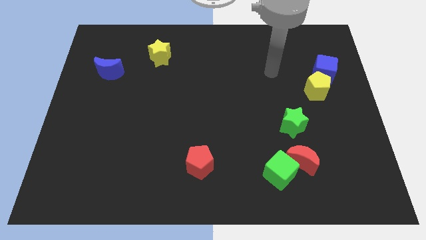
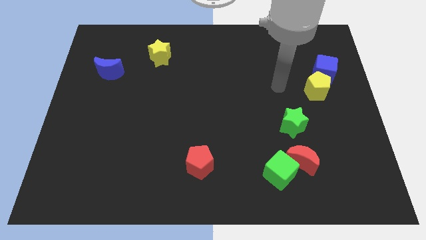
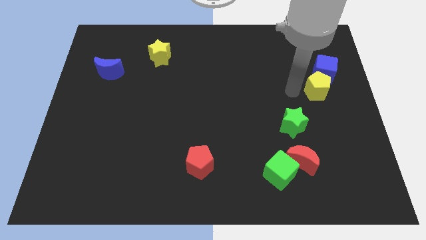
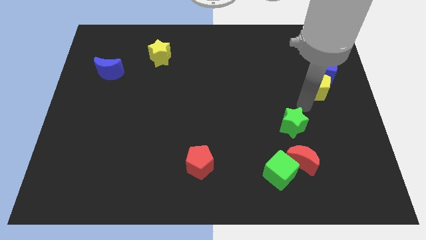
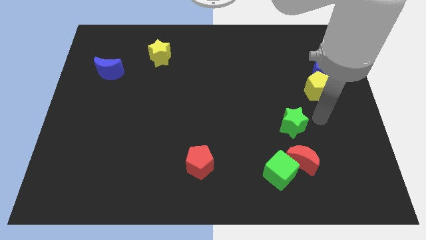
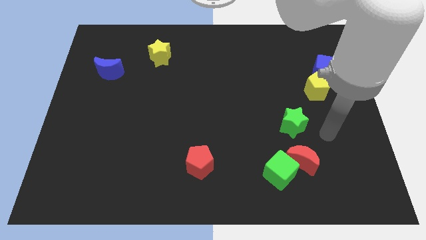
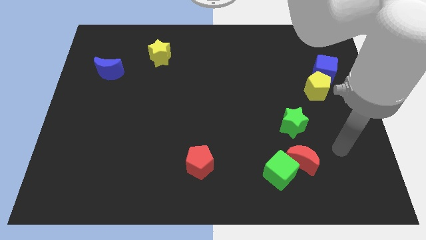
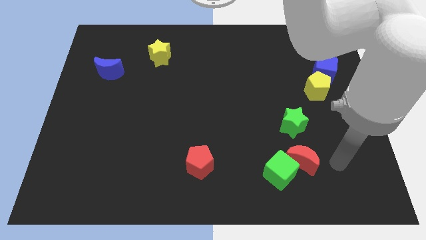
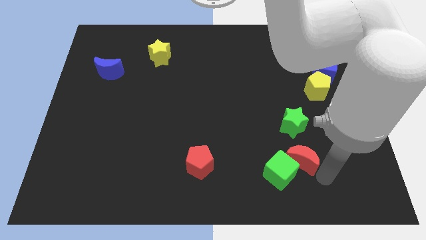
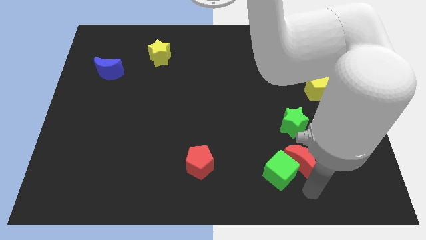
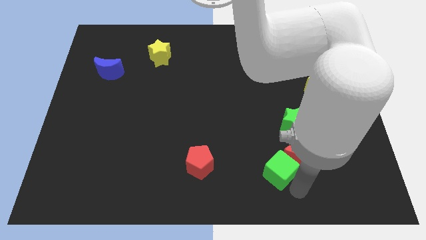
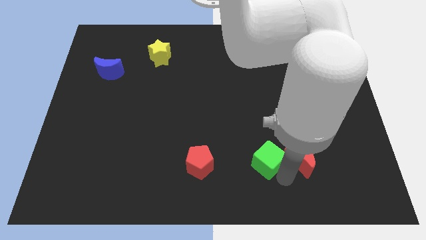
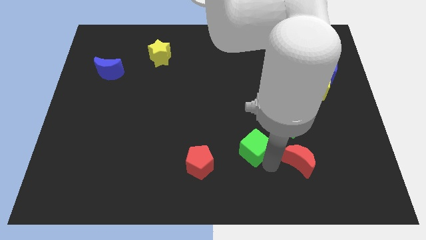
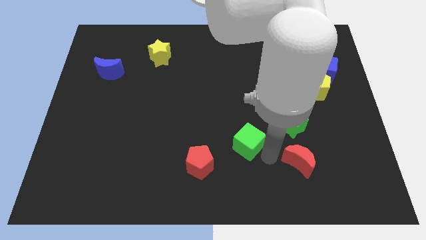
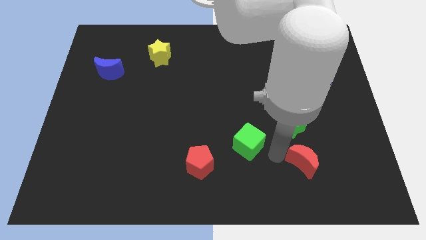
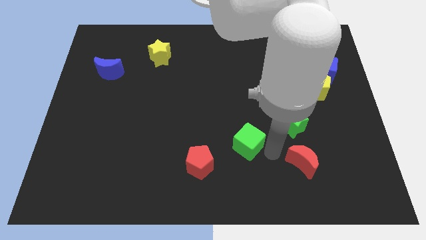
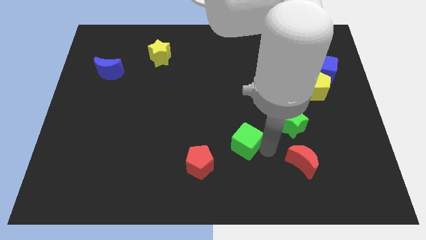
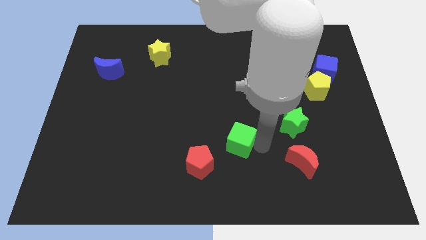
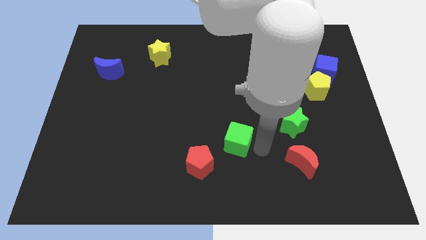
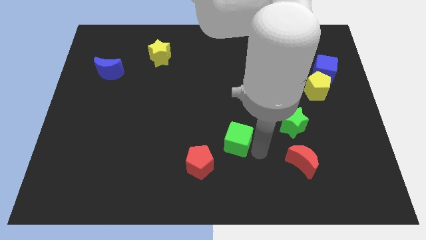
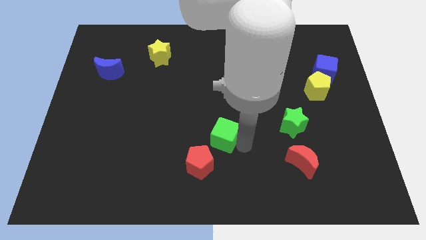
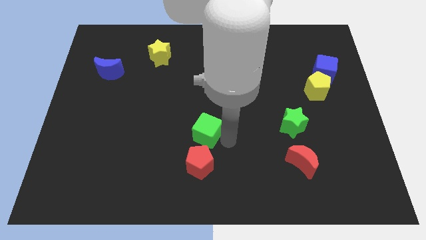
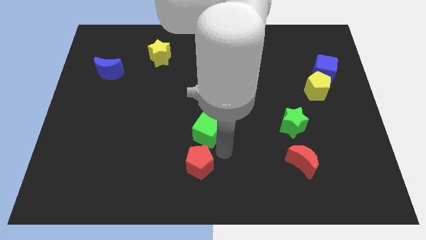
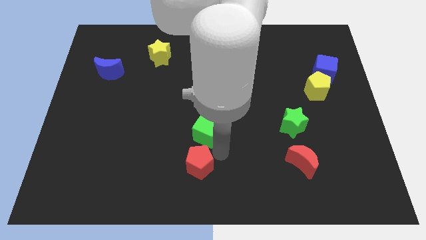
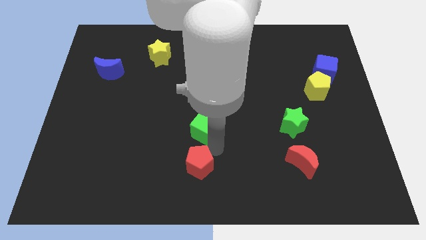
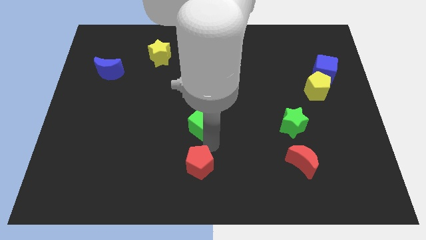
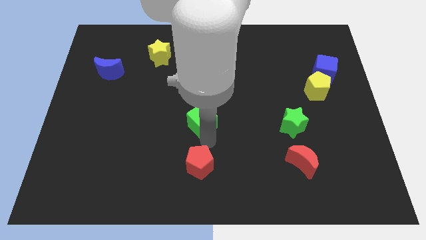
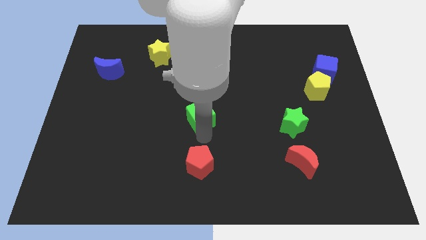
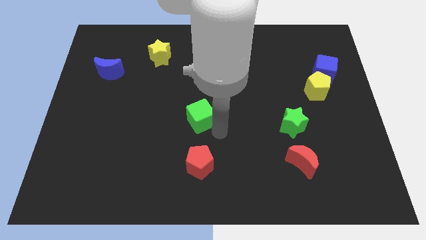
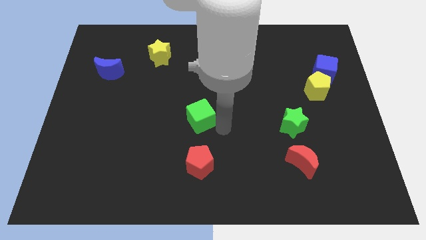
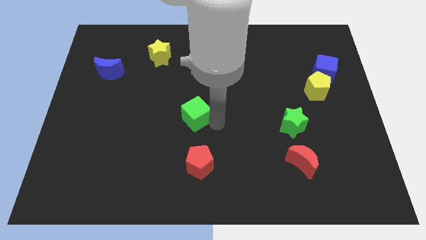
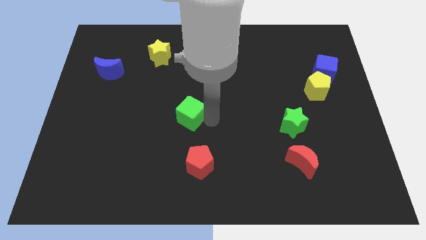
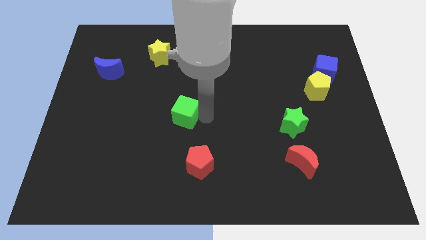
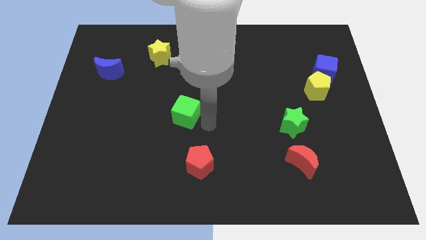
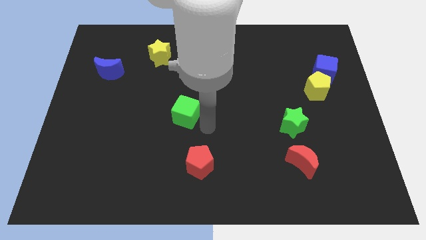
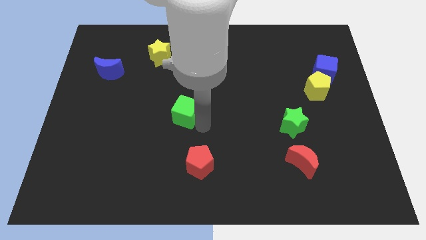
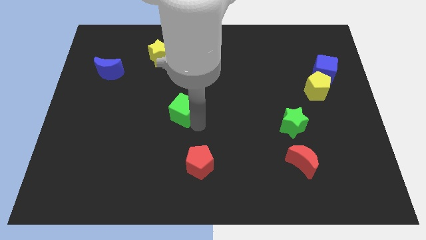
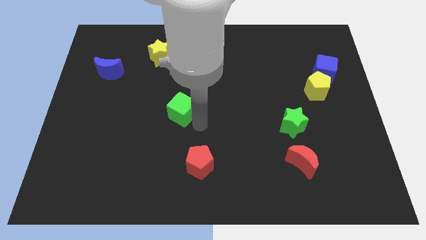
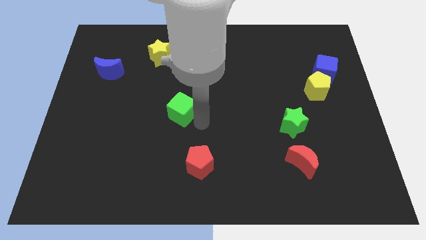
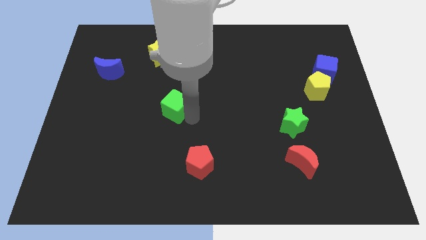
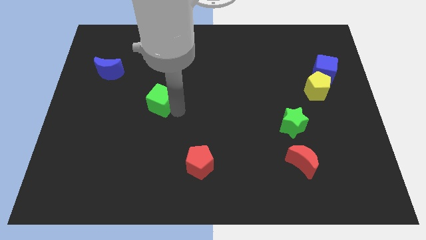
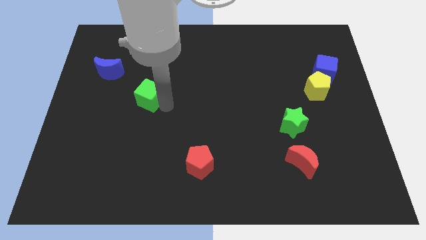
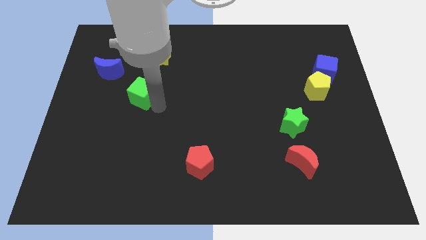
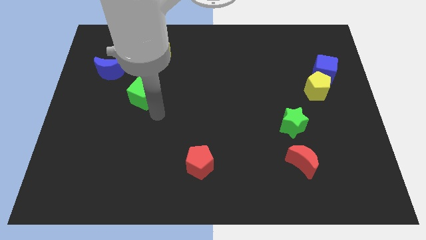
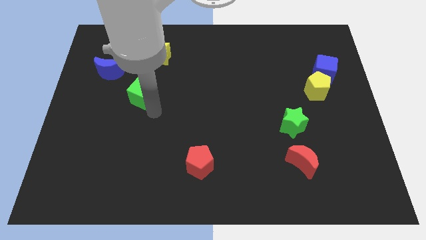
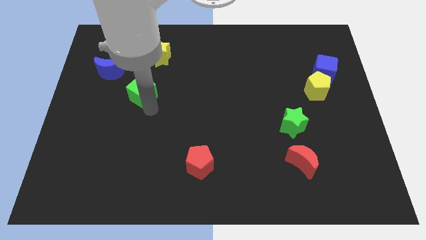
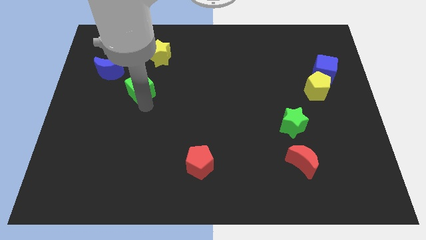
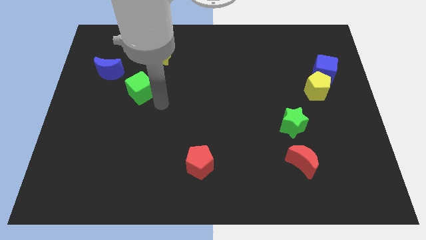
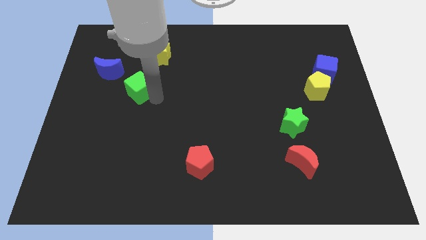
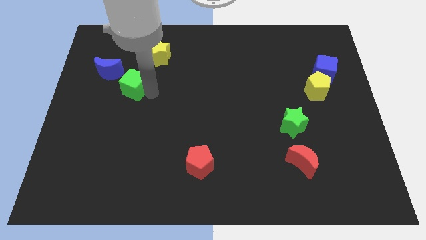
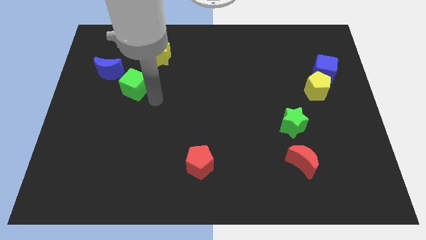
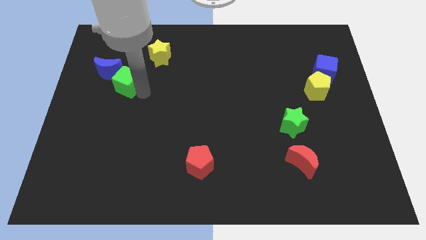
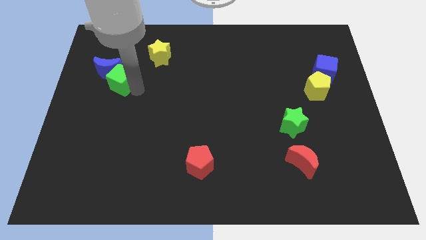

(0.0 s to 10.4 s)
put the green cube next to the blue moon

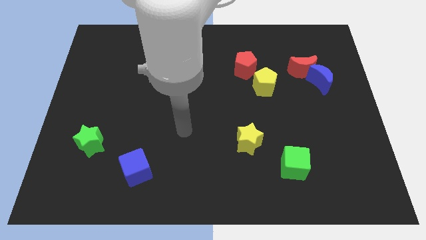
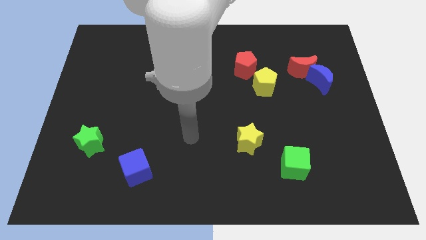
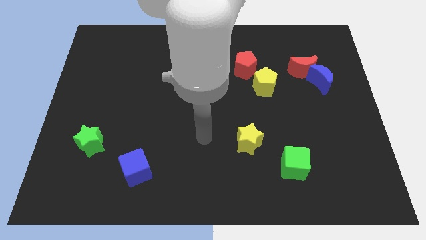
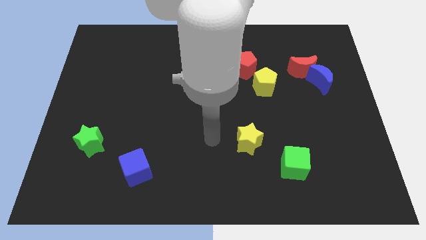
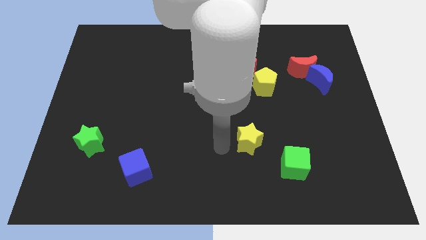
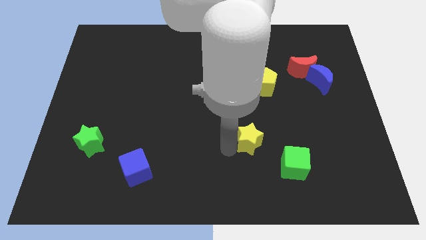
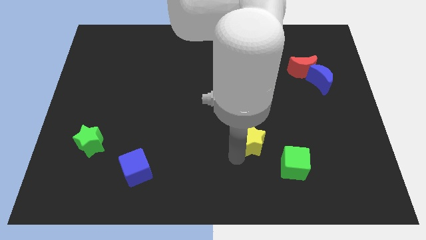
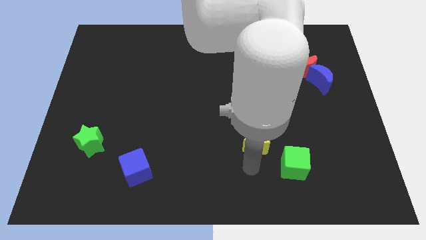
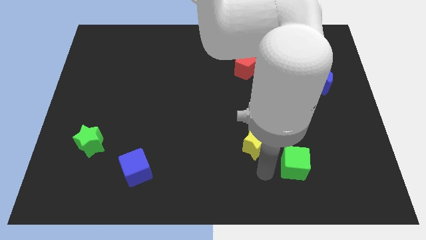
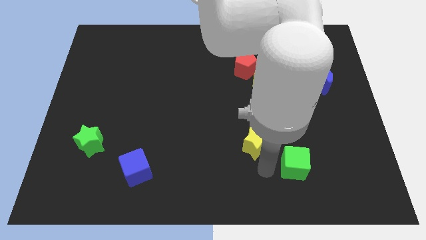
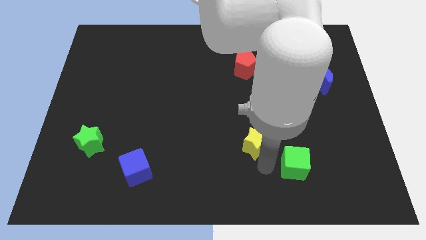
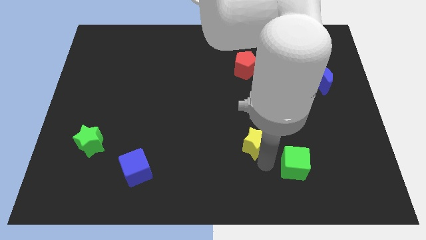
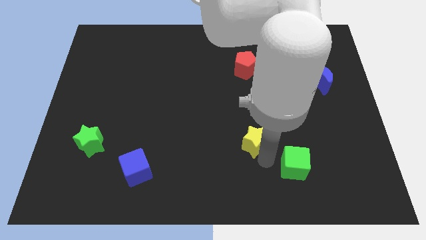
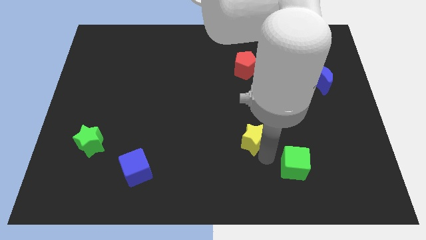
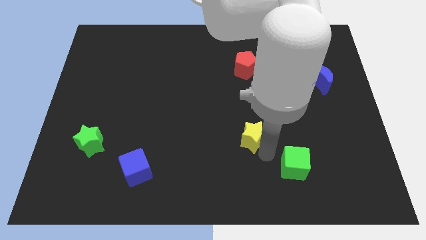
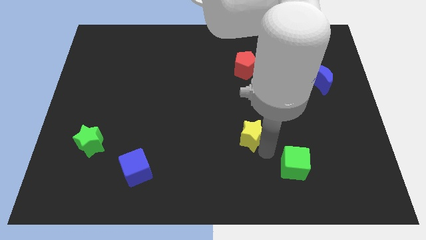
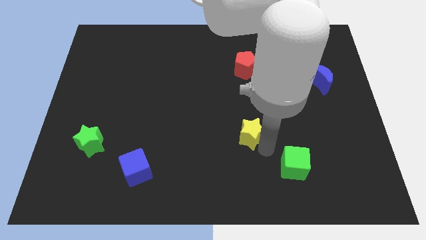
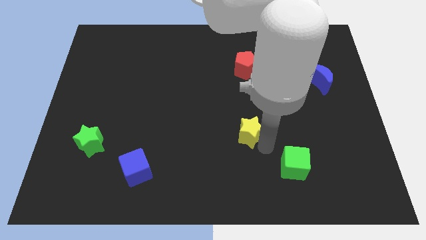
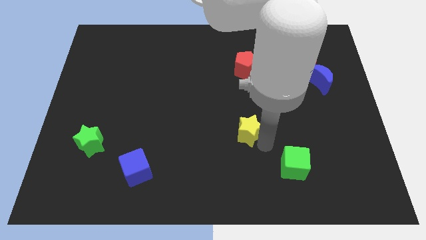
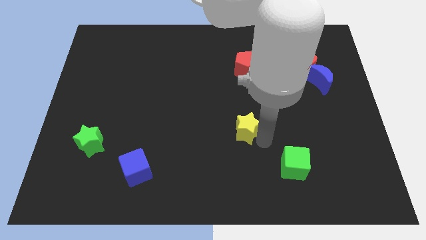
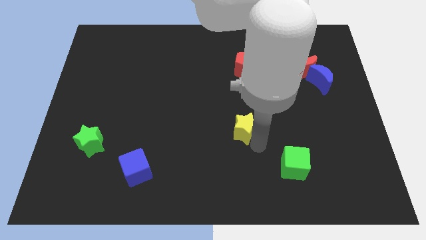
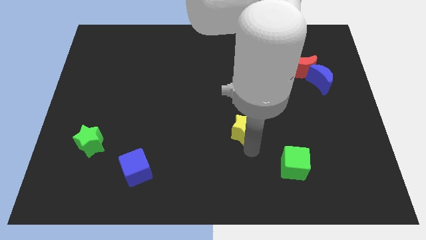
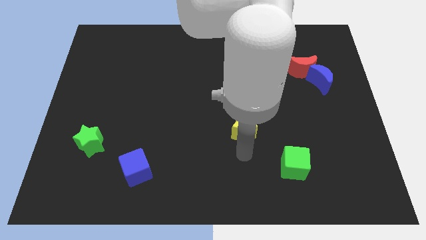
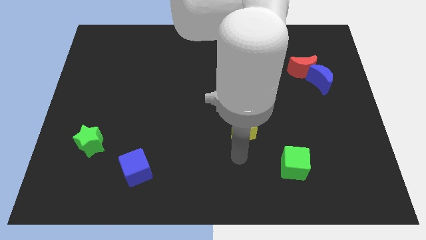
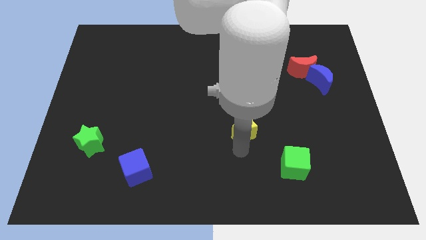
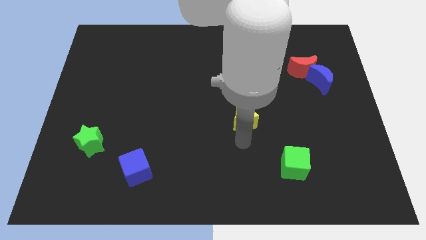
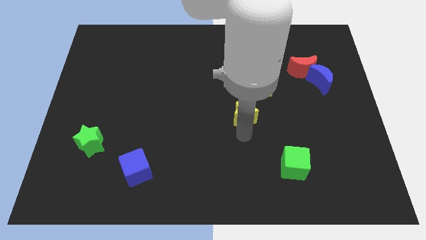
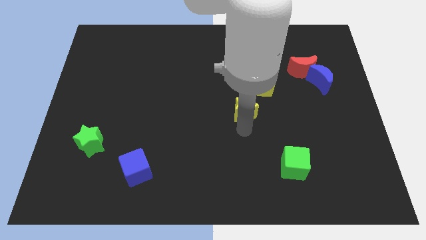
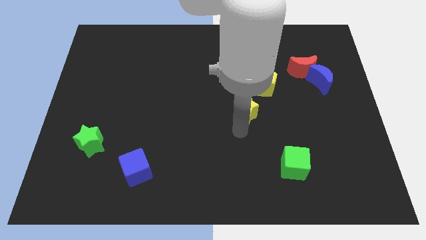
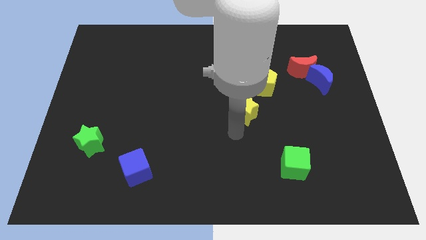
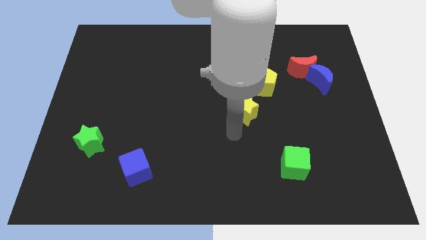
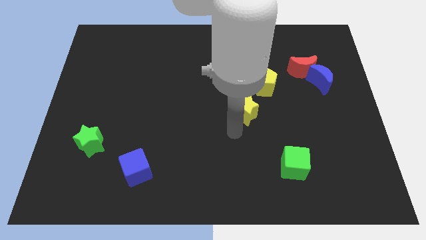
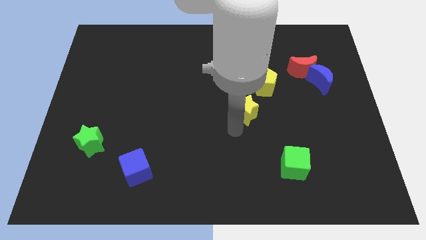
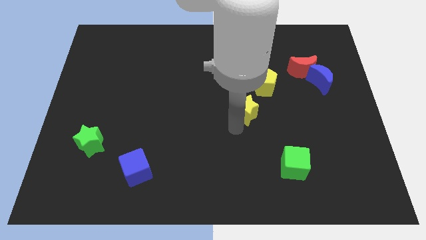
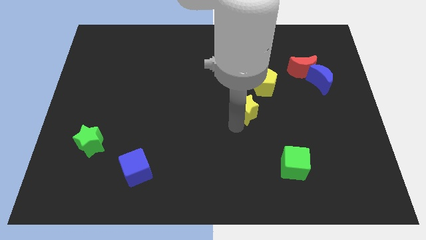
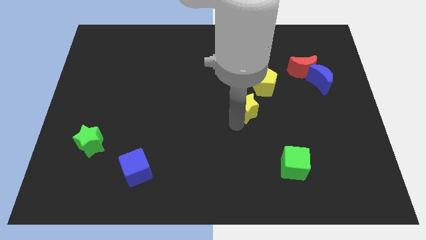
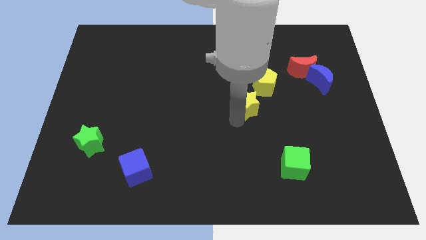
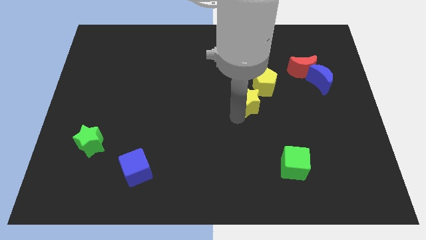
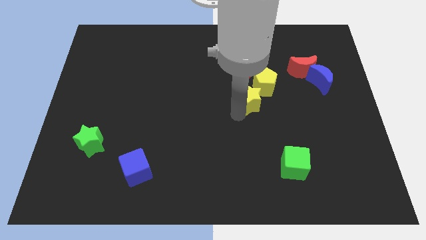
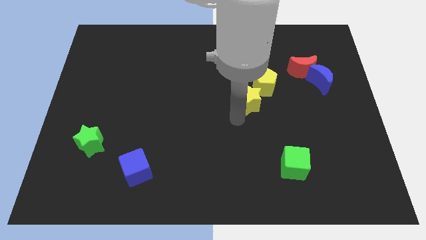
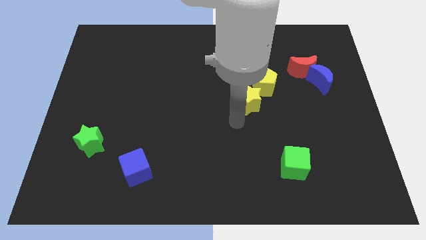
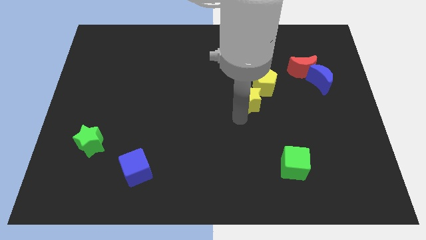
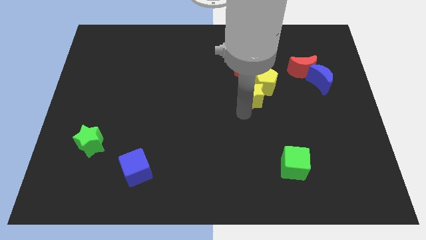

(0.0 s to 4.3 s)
push the yellow star towards the yellow pentagon
